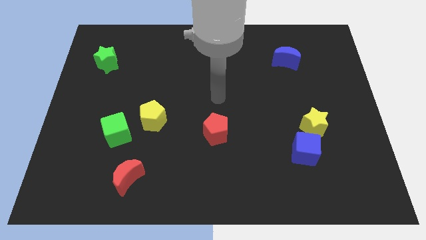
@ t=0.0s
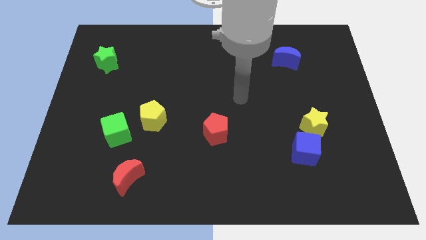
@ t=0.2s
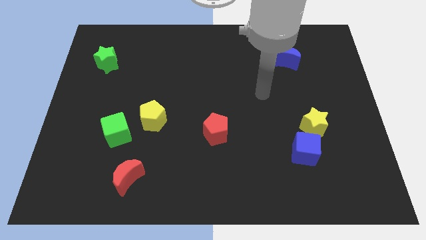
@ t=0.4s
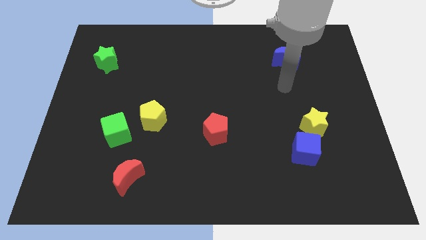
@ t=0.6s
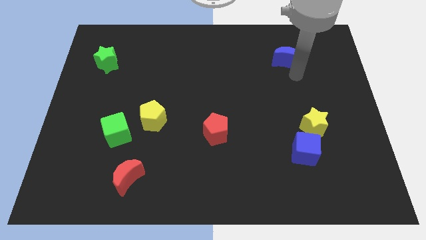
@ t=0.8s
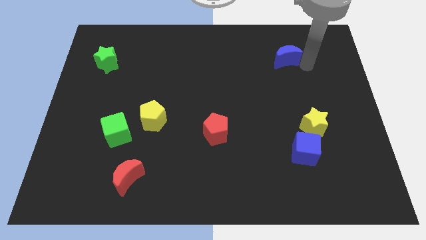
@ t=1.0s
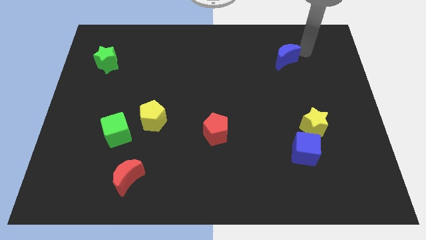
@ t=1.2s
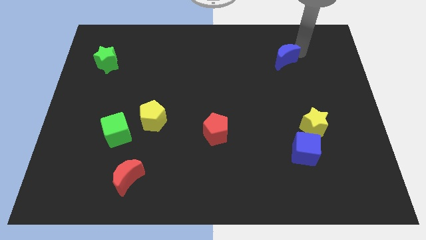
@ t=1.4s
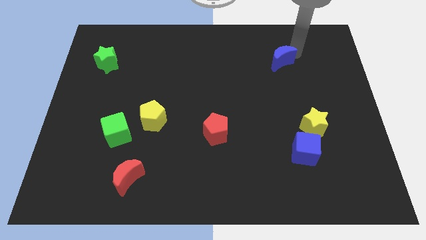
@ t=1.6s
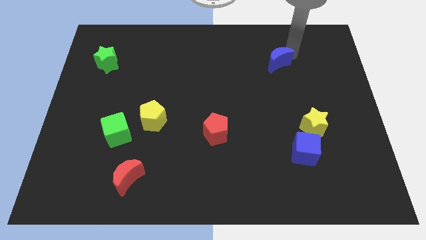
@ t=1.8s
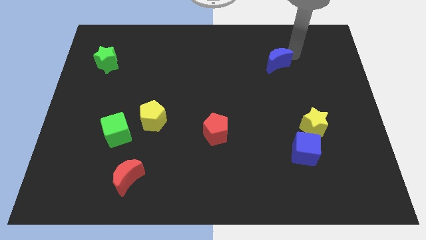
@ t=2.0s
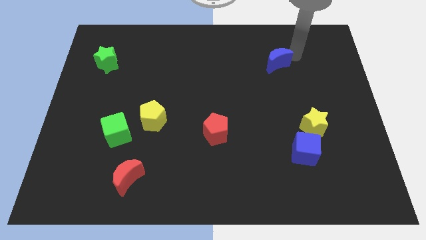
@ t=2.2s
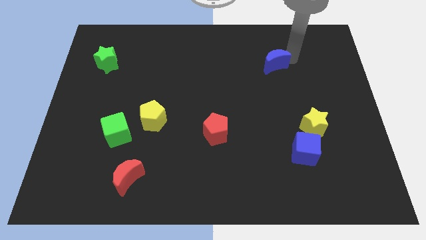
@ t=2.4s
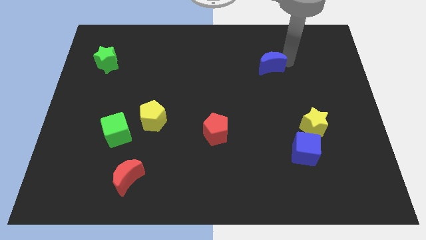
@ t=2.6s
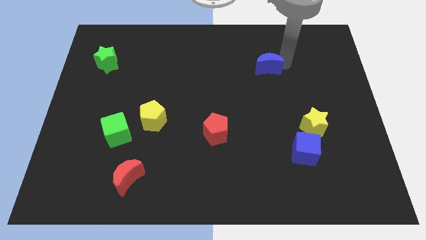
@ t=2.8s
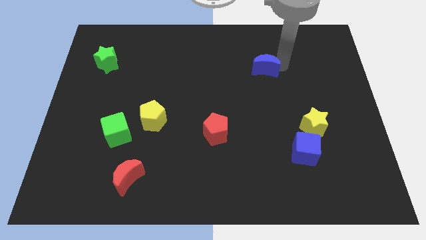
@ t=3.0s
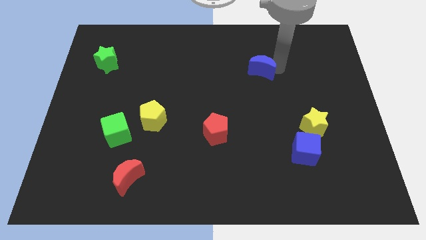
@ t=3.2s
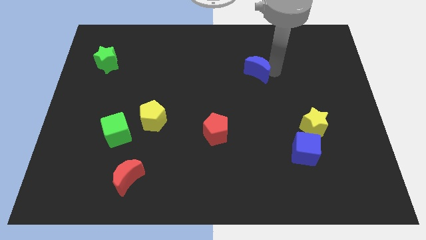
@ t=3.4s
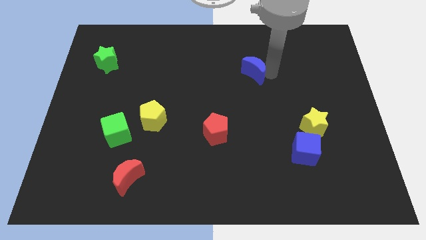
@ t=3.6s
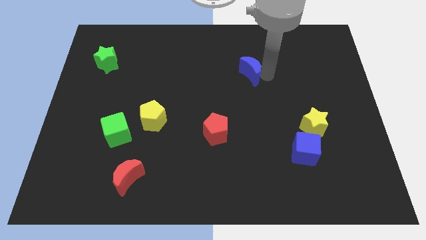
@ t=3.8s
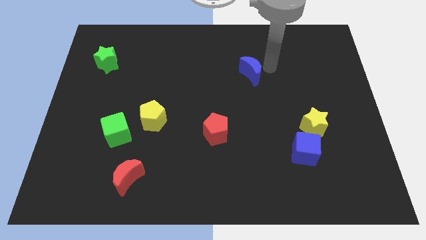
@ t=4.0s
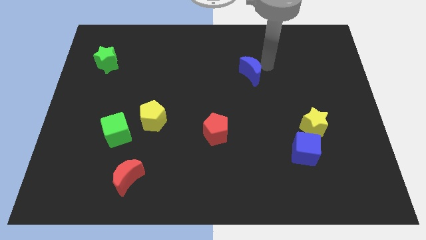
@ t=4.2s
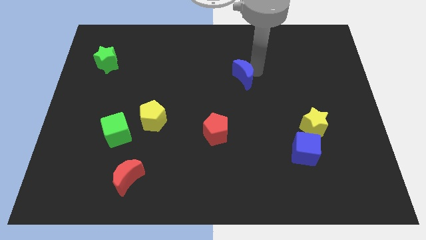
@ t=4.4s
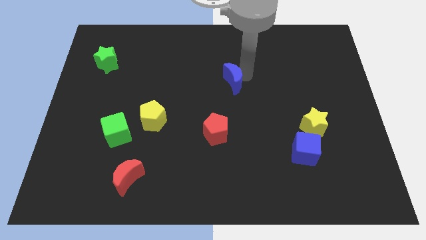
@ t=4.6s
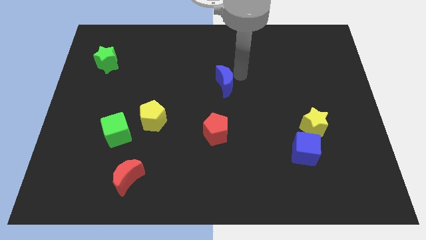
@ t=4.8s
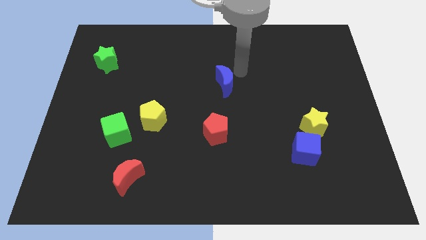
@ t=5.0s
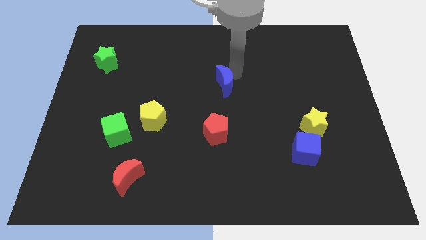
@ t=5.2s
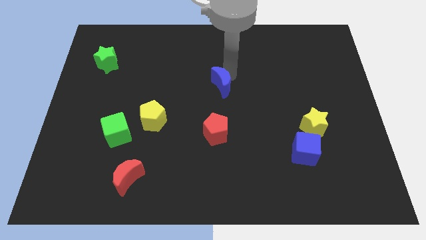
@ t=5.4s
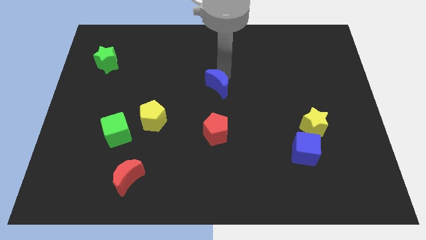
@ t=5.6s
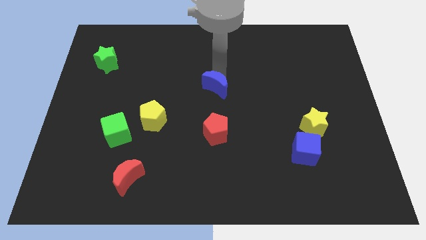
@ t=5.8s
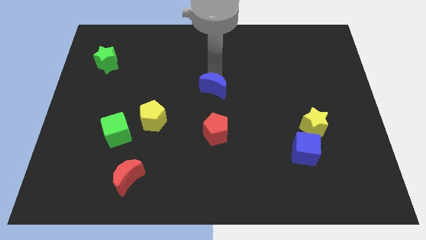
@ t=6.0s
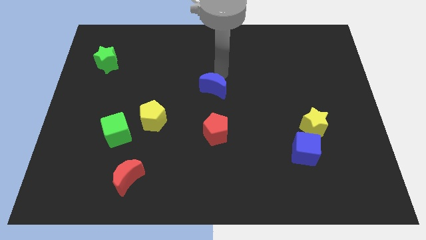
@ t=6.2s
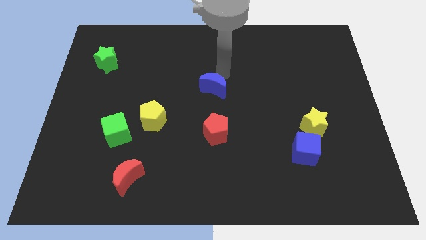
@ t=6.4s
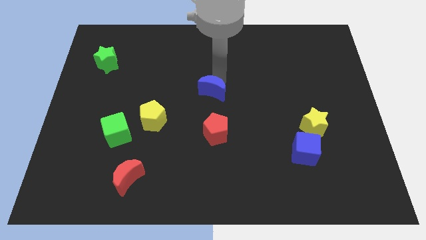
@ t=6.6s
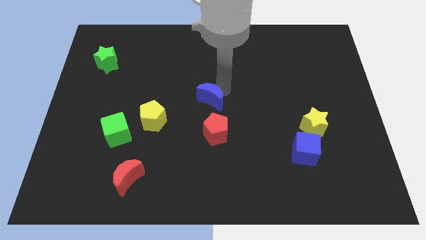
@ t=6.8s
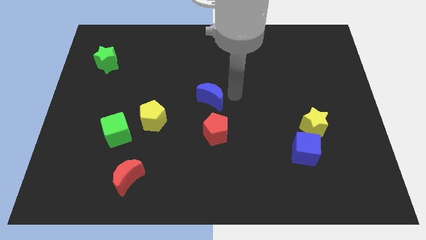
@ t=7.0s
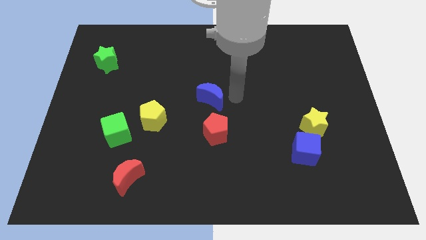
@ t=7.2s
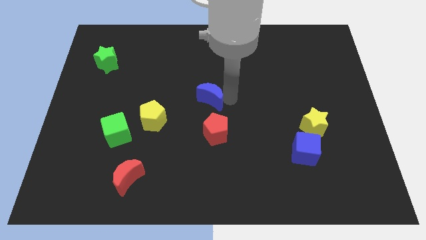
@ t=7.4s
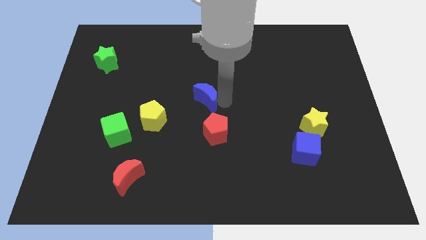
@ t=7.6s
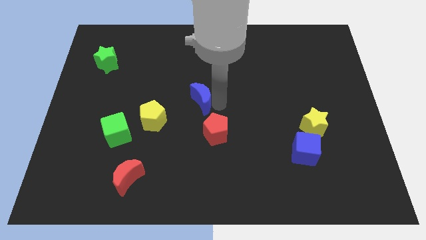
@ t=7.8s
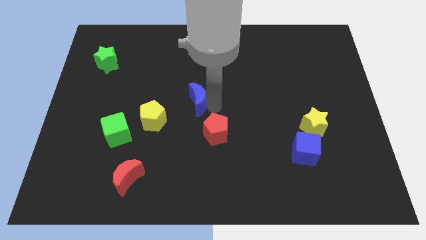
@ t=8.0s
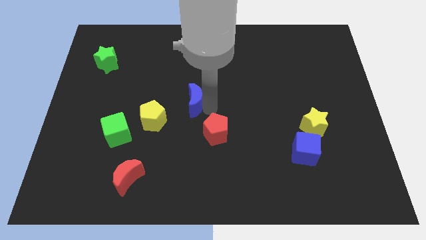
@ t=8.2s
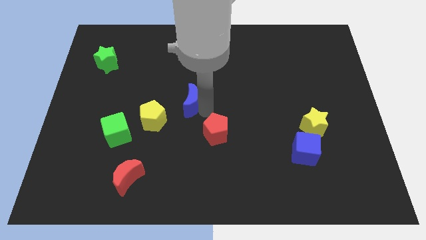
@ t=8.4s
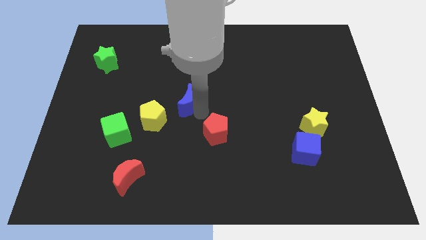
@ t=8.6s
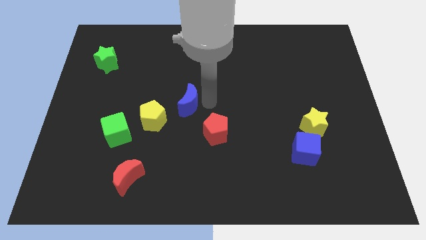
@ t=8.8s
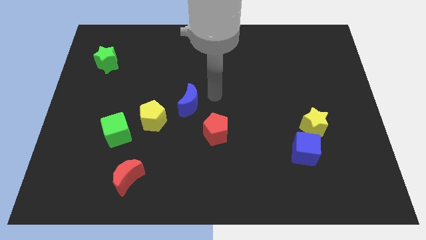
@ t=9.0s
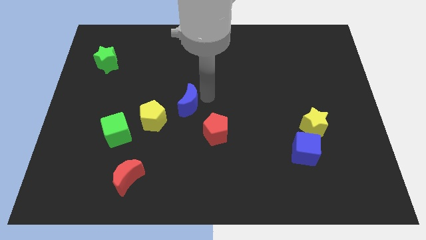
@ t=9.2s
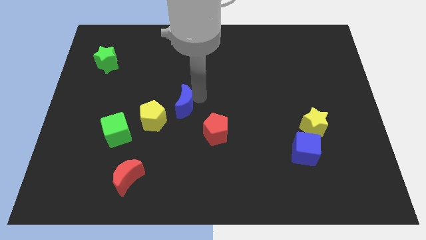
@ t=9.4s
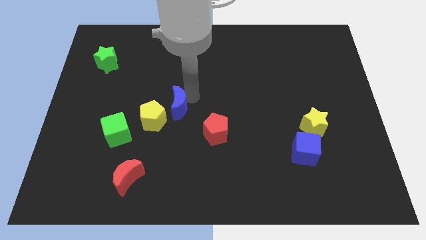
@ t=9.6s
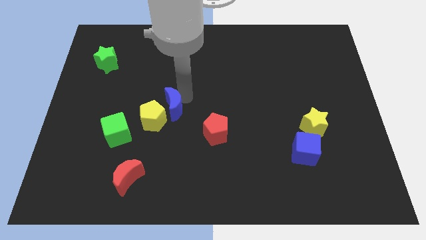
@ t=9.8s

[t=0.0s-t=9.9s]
push the blue moon to the yellow pentagon
